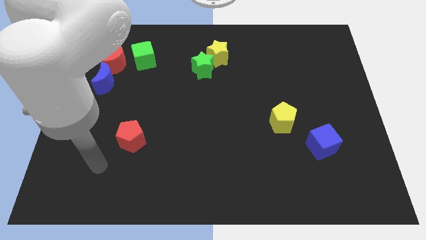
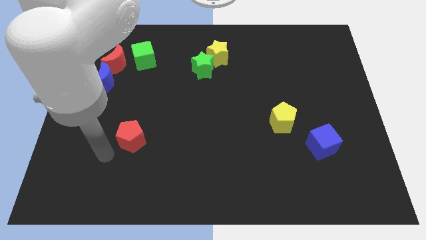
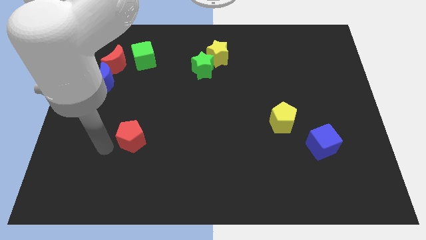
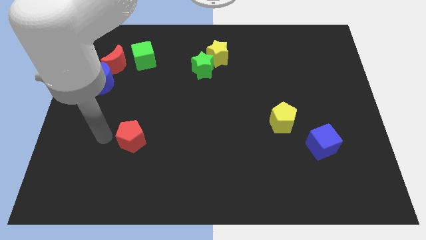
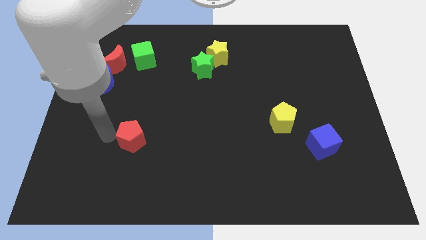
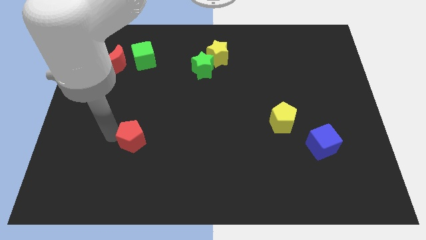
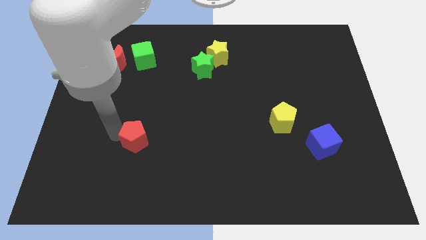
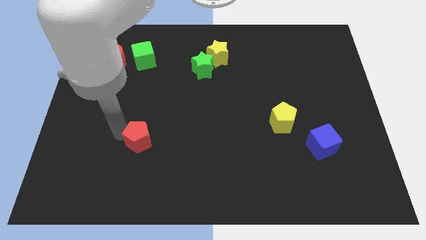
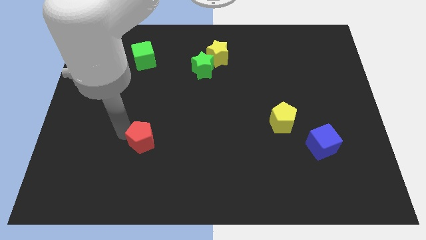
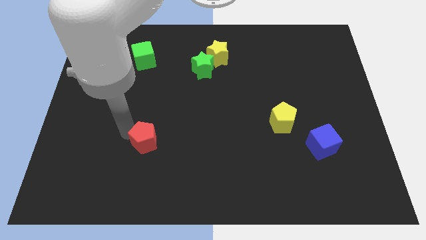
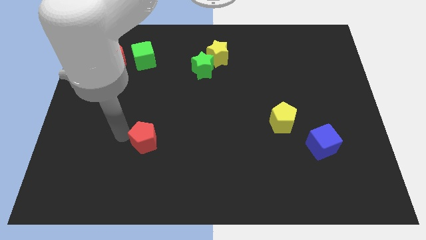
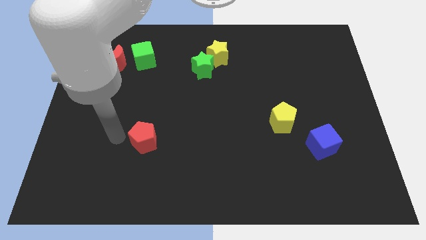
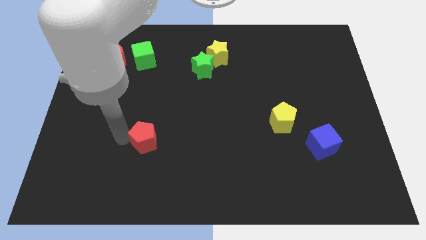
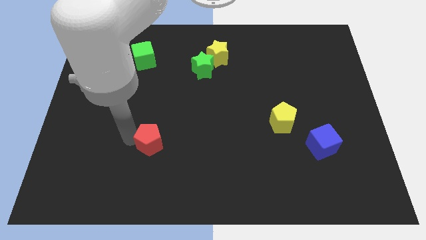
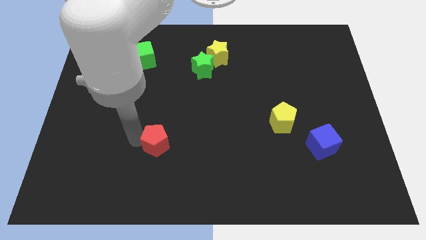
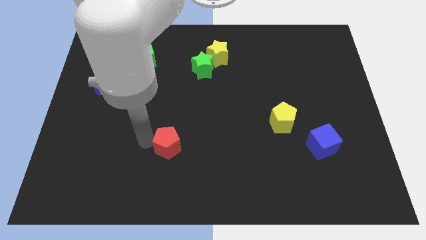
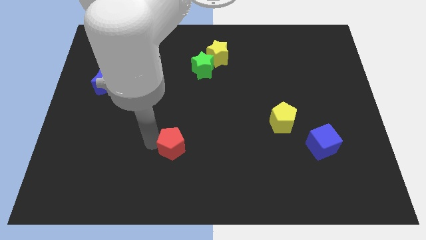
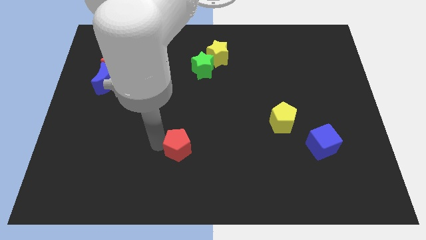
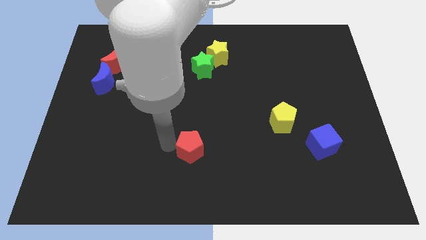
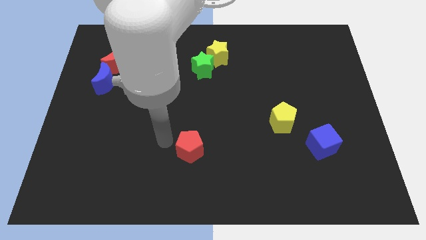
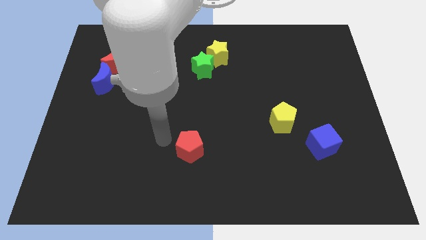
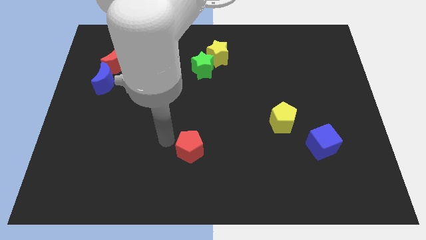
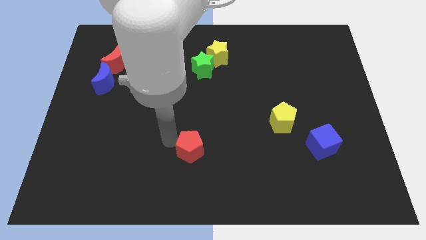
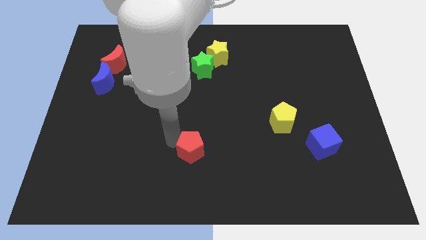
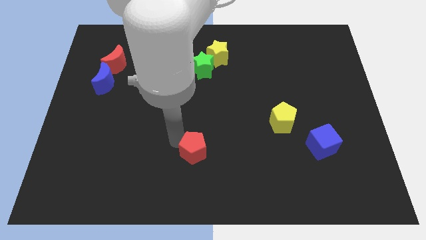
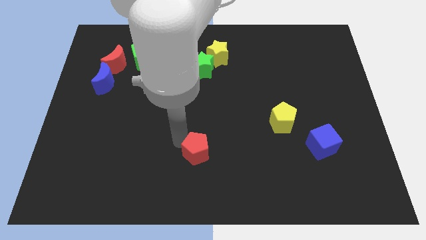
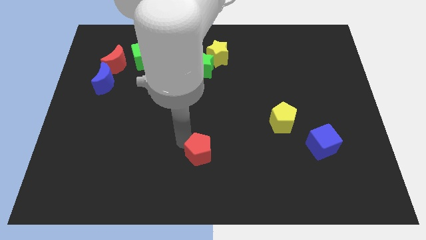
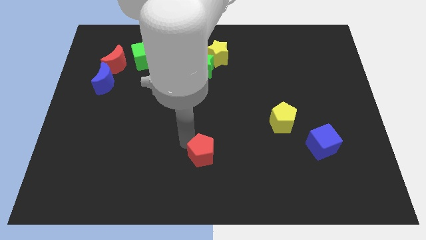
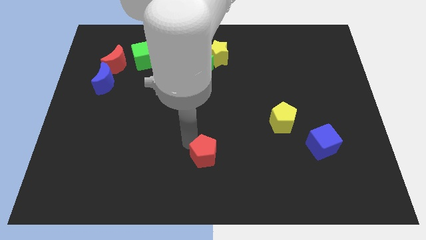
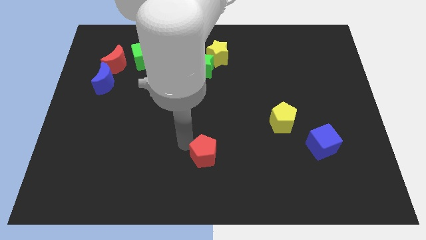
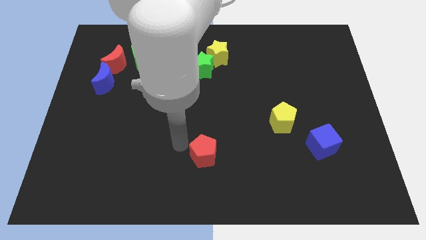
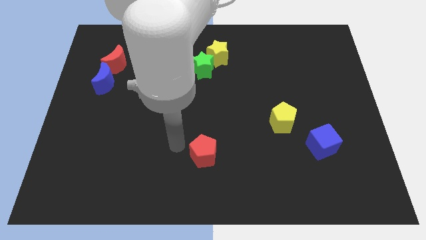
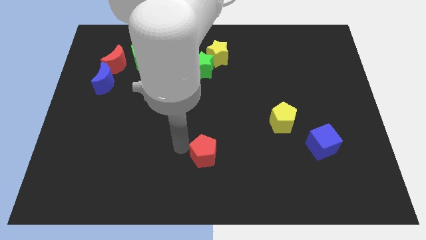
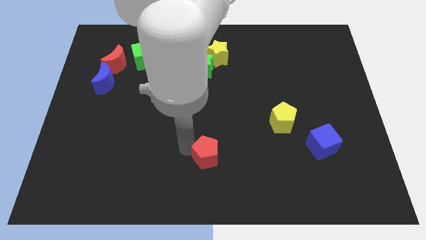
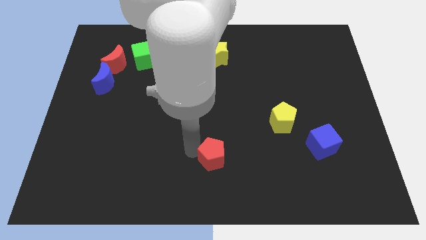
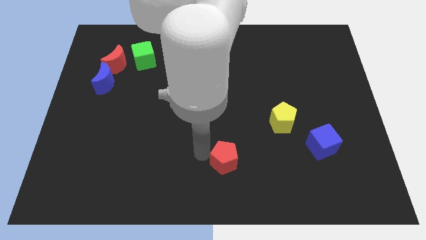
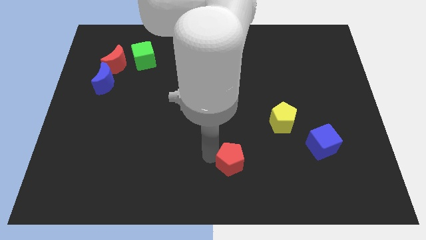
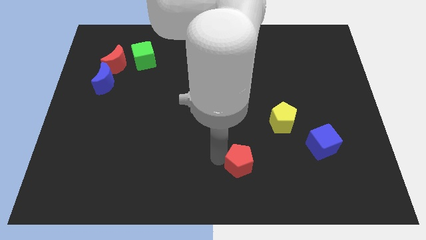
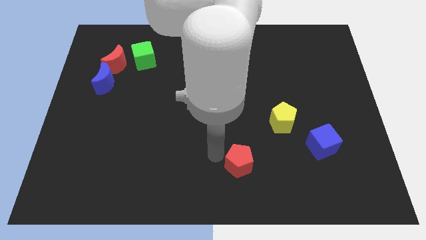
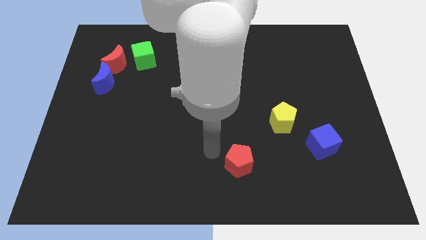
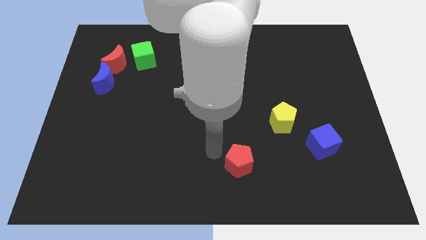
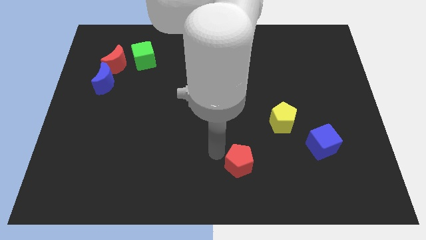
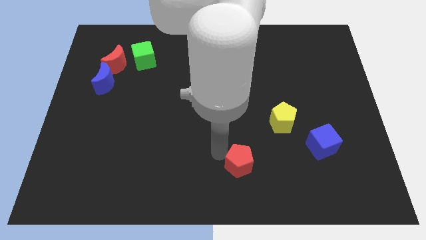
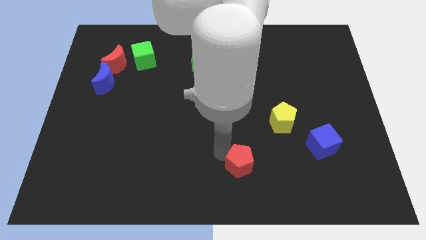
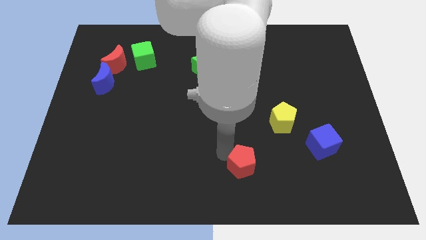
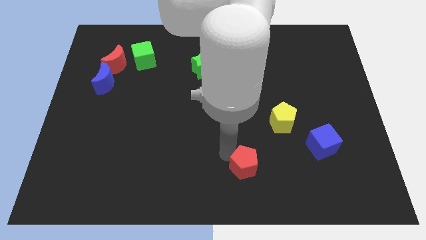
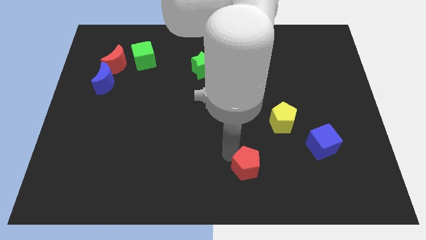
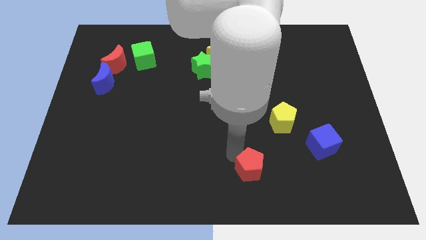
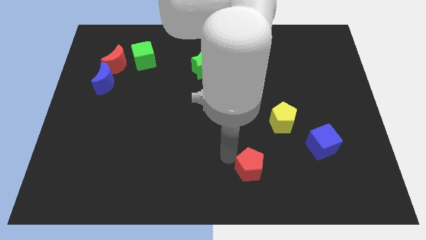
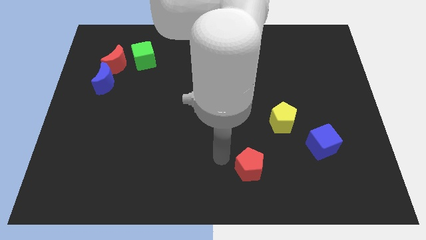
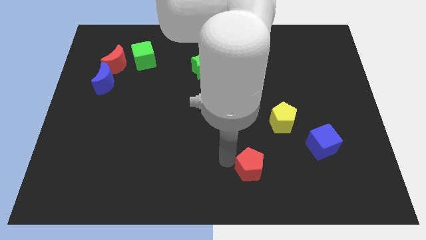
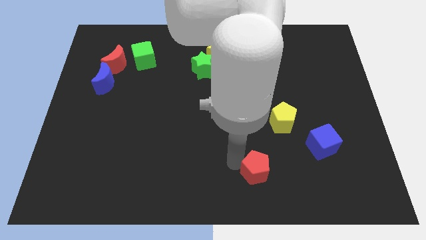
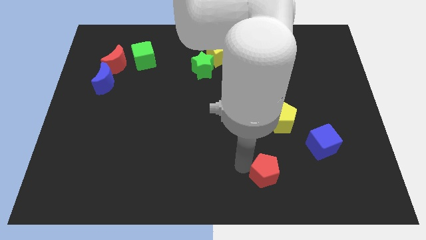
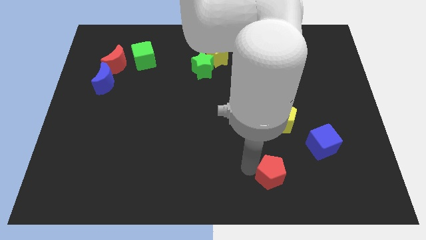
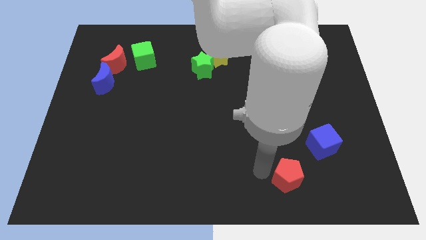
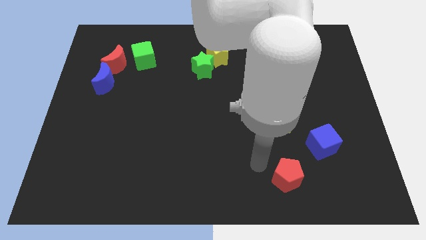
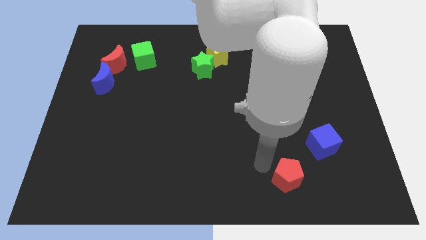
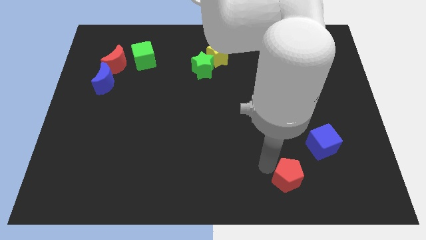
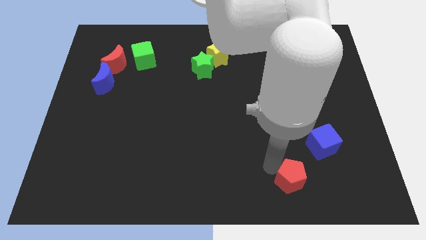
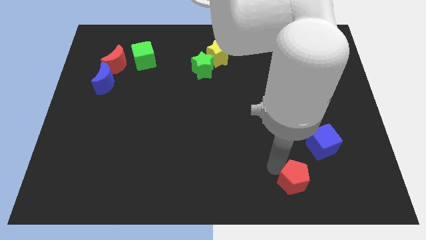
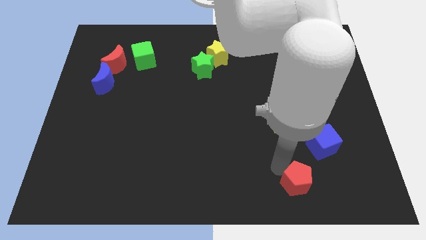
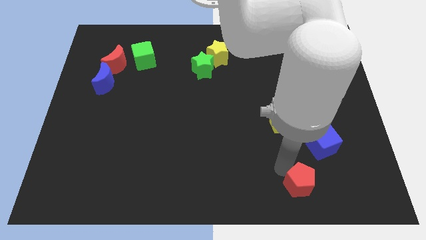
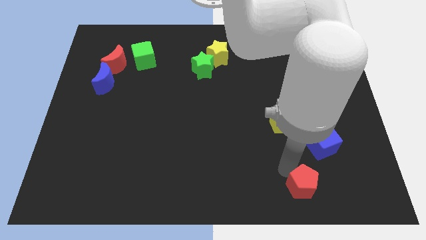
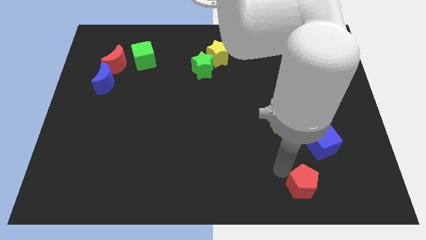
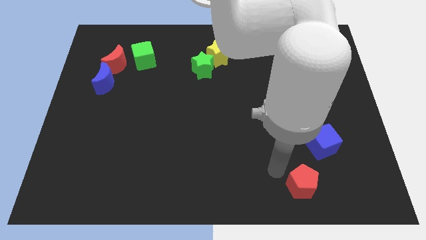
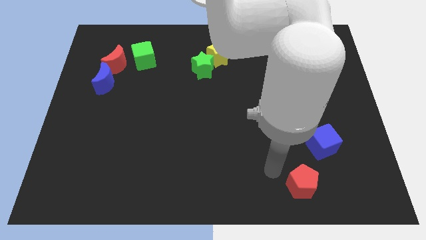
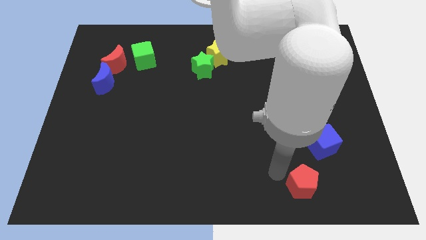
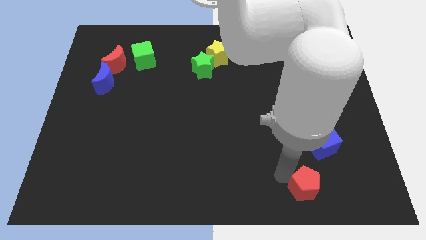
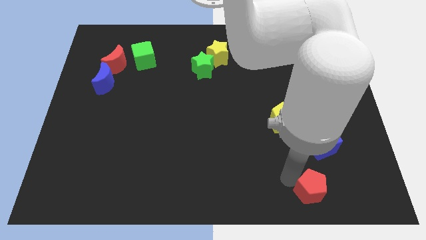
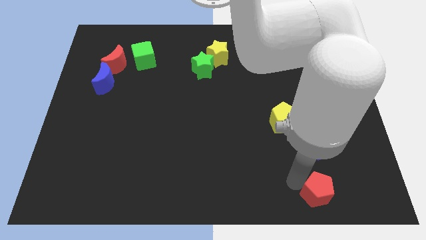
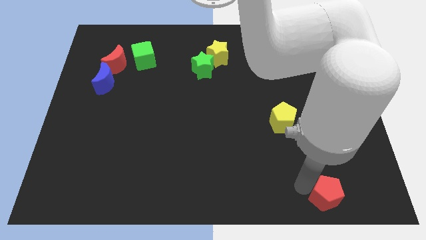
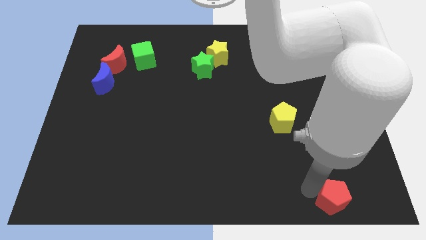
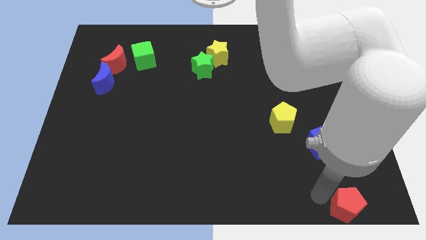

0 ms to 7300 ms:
slide the red pentagon to the bottom right
